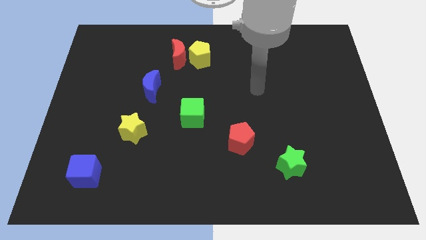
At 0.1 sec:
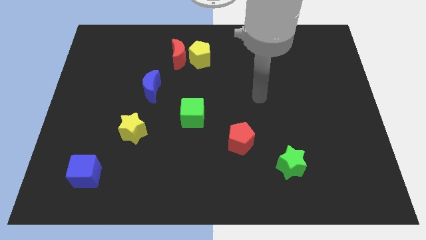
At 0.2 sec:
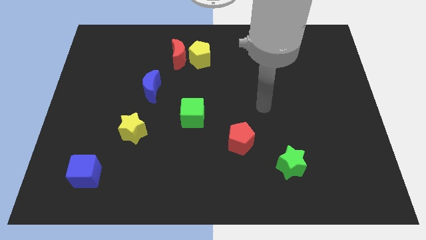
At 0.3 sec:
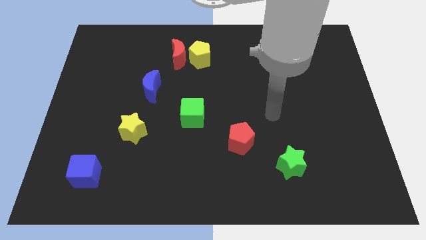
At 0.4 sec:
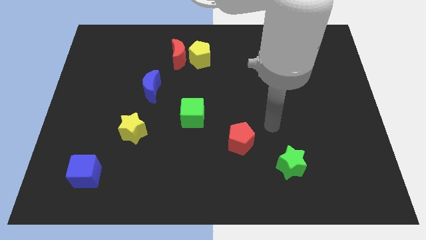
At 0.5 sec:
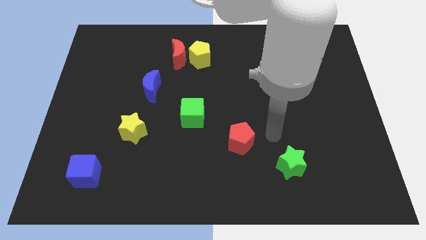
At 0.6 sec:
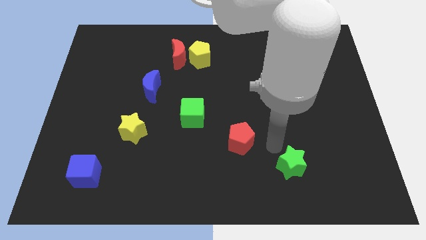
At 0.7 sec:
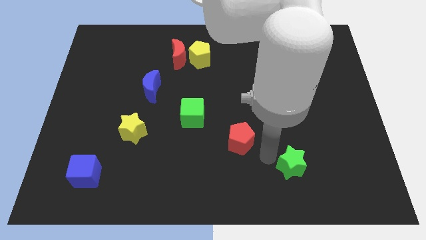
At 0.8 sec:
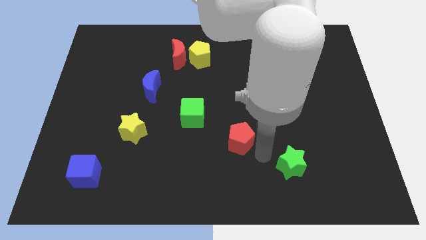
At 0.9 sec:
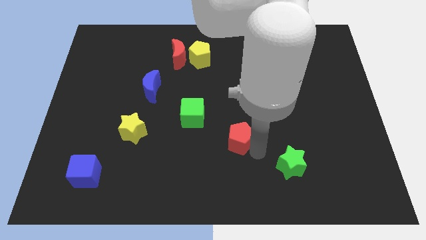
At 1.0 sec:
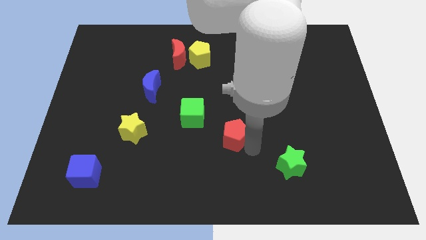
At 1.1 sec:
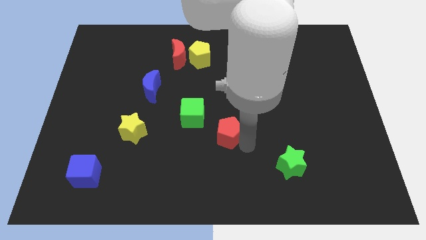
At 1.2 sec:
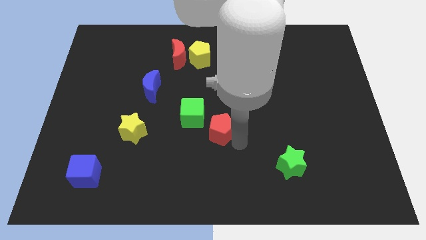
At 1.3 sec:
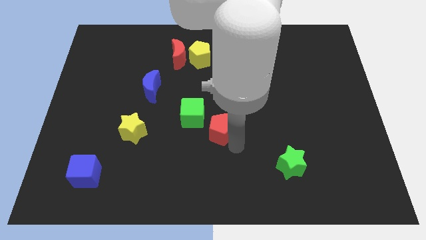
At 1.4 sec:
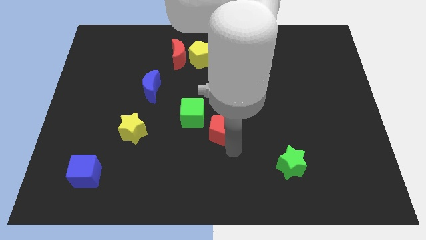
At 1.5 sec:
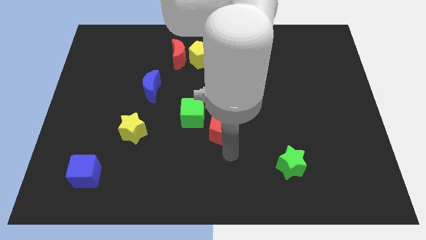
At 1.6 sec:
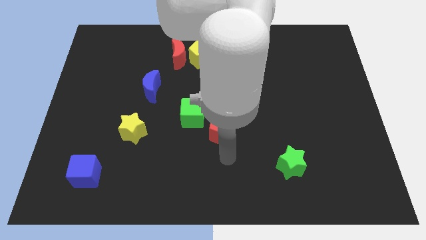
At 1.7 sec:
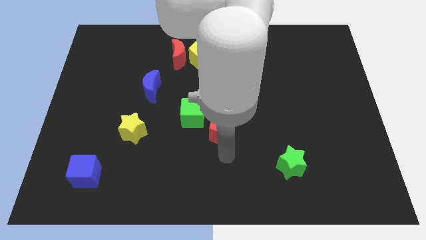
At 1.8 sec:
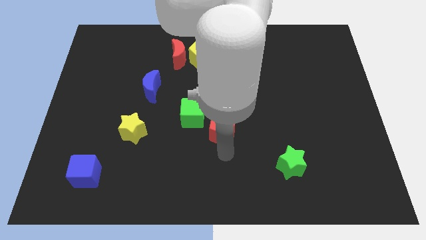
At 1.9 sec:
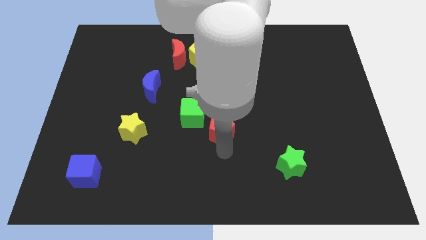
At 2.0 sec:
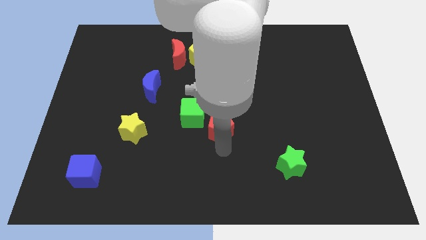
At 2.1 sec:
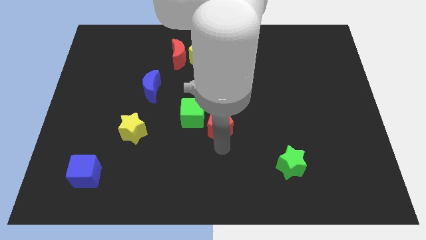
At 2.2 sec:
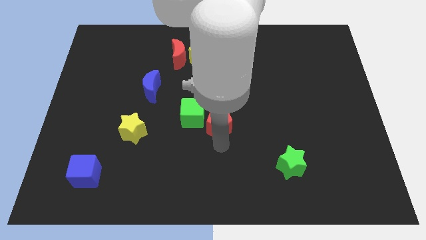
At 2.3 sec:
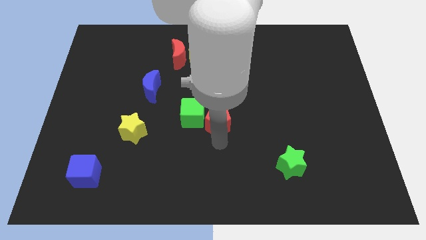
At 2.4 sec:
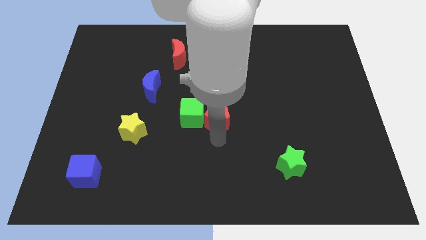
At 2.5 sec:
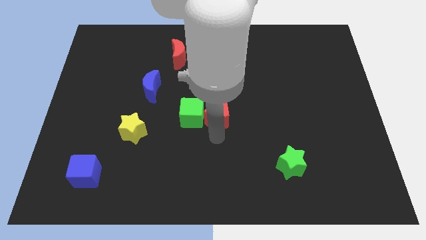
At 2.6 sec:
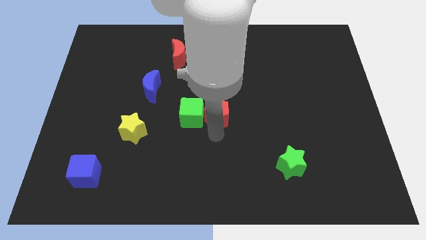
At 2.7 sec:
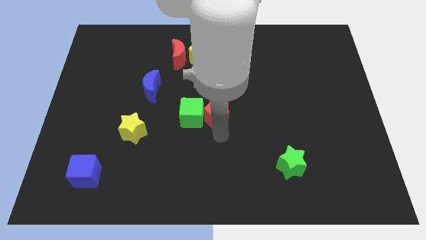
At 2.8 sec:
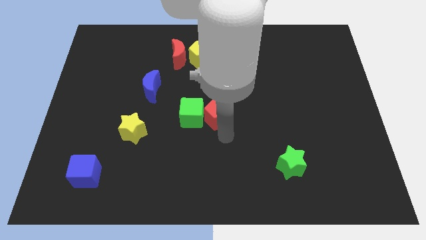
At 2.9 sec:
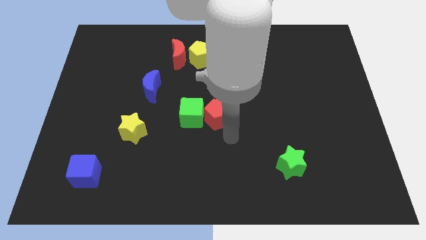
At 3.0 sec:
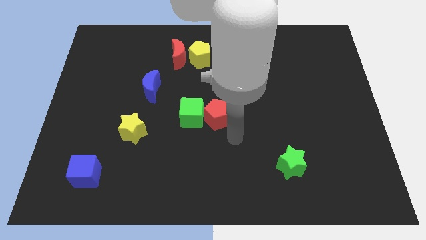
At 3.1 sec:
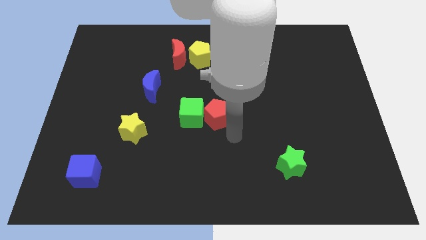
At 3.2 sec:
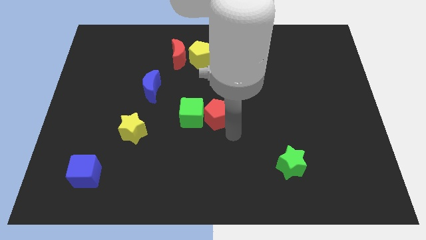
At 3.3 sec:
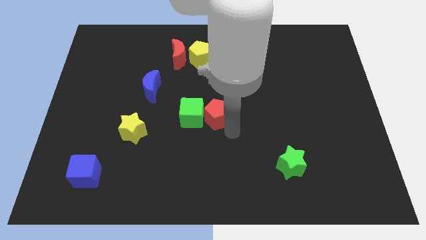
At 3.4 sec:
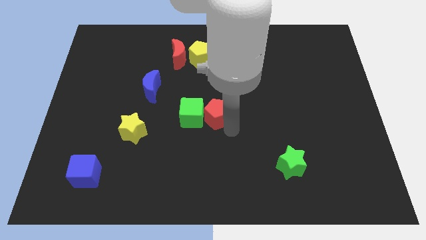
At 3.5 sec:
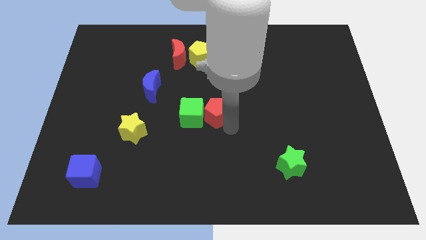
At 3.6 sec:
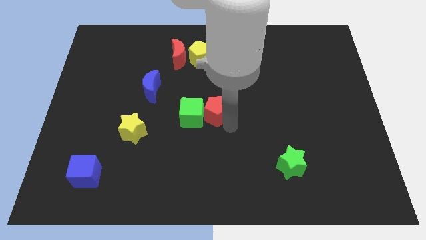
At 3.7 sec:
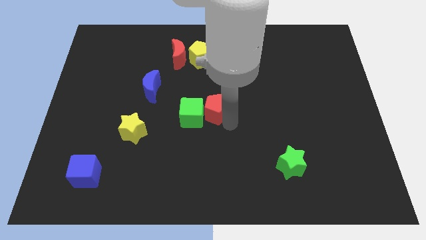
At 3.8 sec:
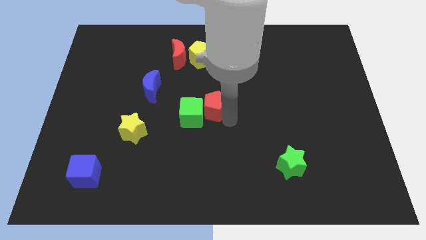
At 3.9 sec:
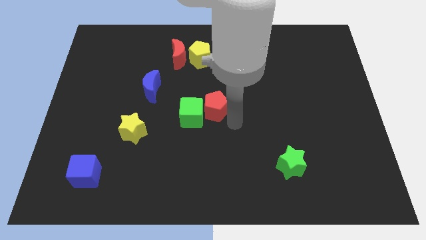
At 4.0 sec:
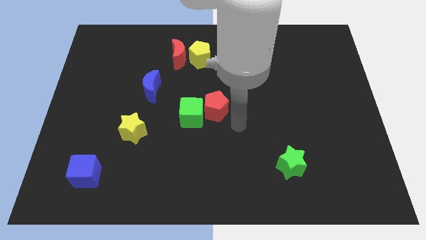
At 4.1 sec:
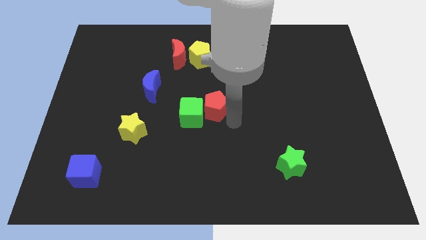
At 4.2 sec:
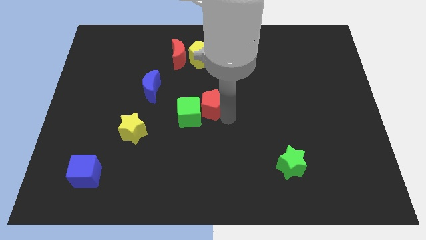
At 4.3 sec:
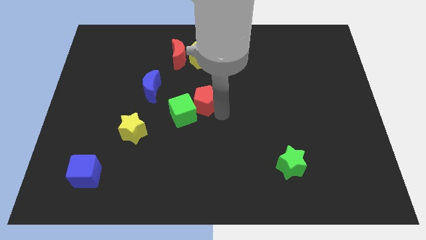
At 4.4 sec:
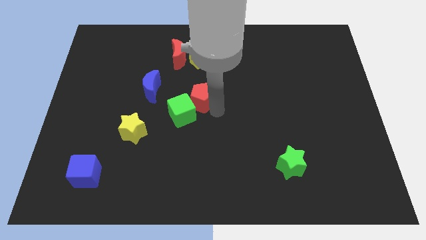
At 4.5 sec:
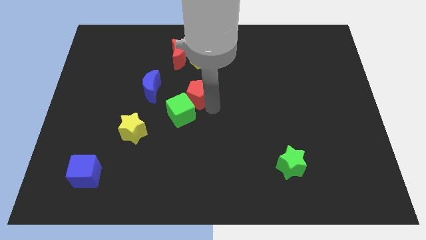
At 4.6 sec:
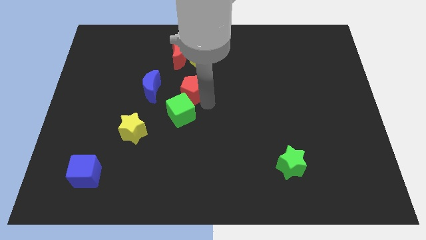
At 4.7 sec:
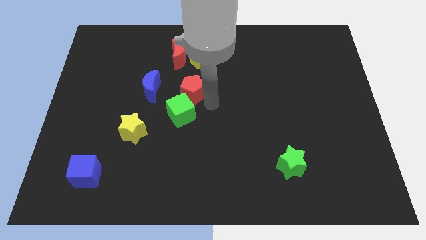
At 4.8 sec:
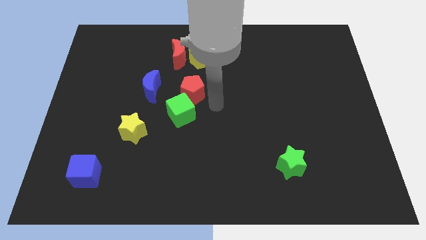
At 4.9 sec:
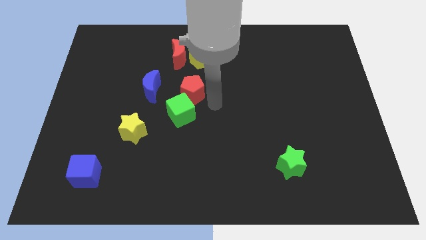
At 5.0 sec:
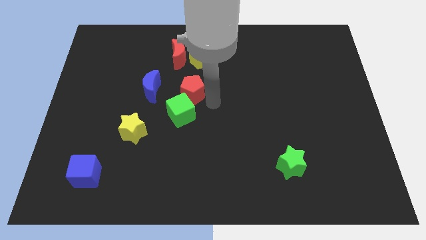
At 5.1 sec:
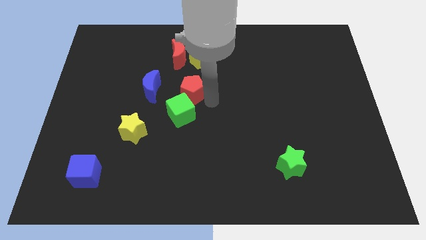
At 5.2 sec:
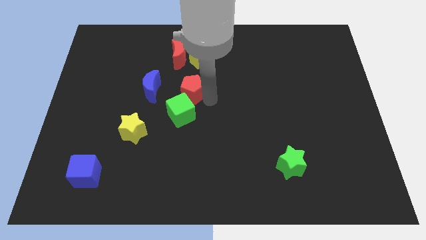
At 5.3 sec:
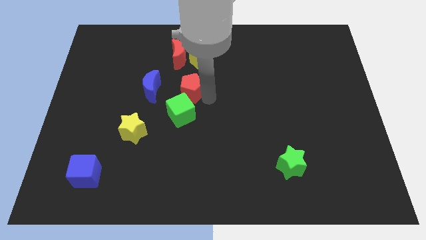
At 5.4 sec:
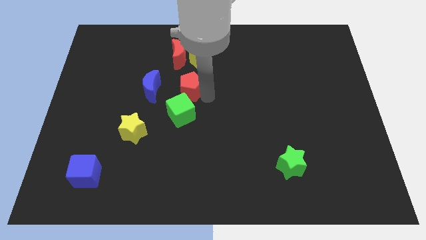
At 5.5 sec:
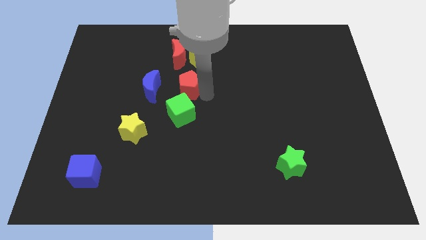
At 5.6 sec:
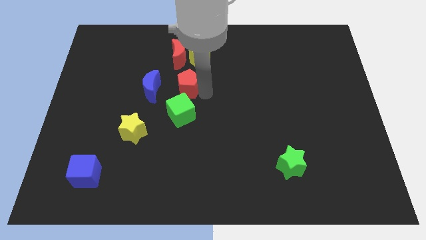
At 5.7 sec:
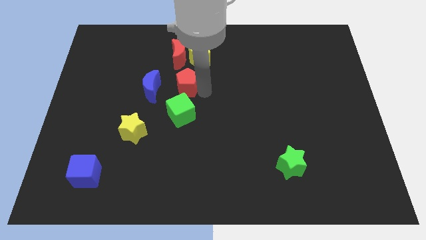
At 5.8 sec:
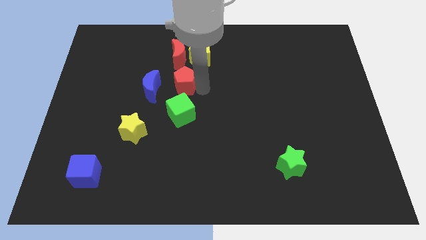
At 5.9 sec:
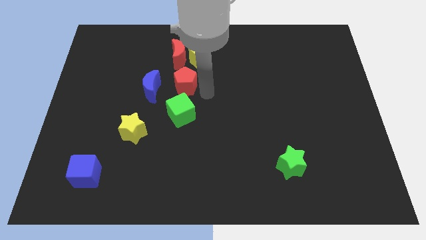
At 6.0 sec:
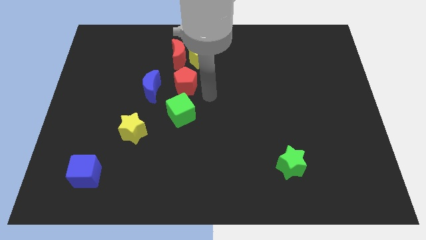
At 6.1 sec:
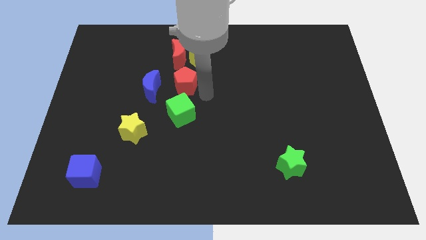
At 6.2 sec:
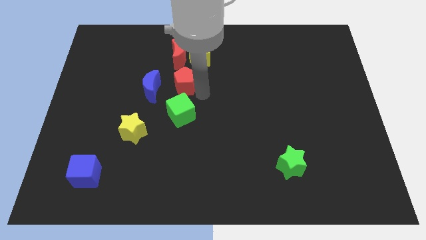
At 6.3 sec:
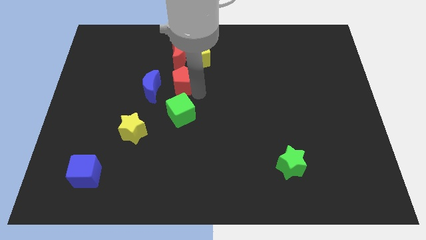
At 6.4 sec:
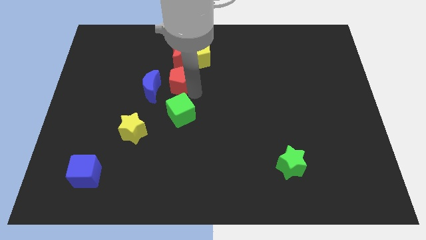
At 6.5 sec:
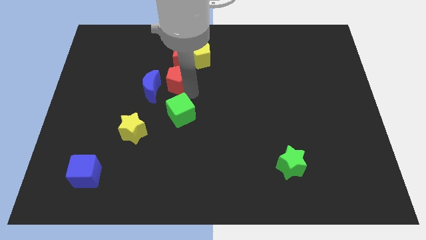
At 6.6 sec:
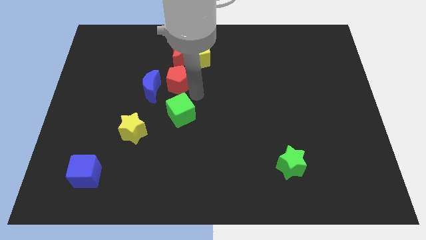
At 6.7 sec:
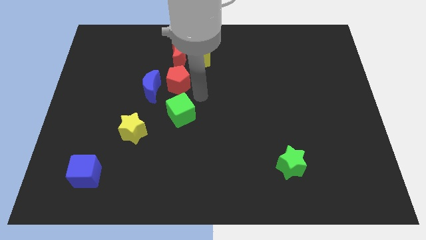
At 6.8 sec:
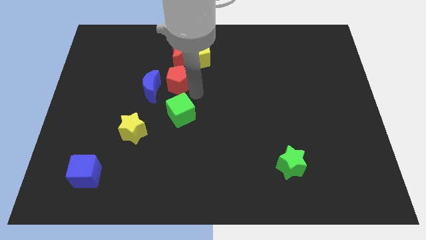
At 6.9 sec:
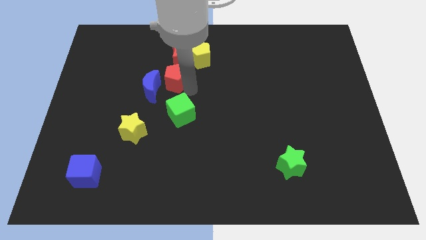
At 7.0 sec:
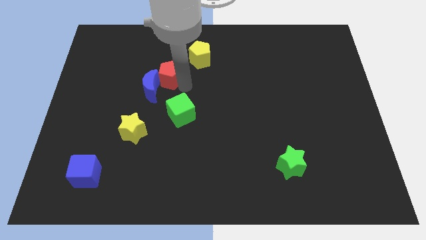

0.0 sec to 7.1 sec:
put the red pentagon to the bottom left of the red moon

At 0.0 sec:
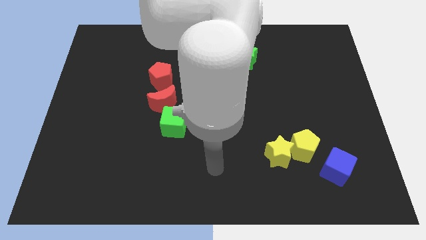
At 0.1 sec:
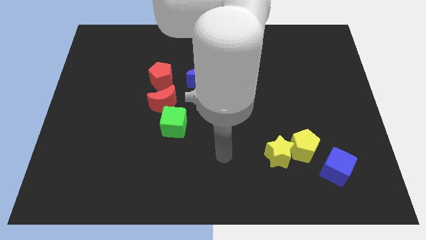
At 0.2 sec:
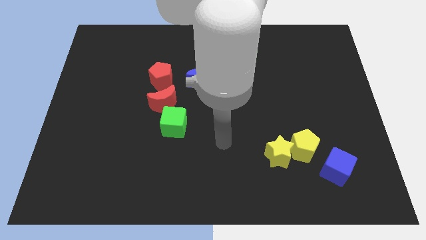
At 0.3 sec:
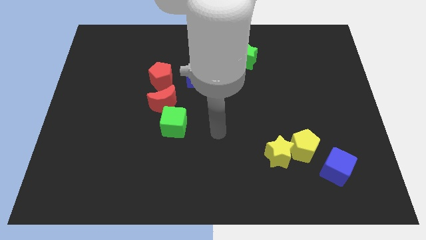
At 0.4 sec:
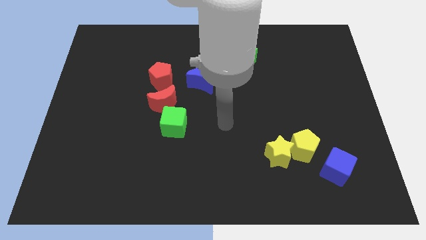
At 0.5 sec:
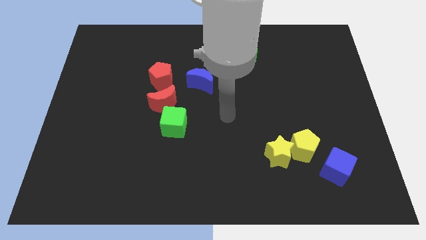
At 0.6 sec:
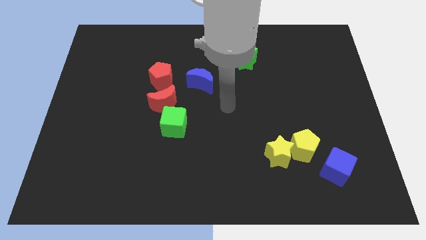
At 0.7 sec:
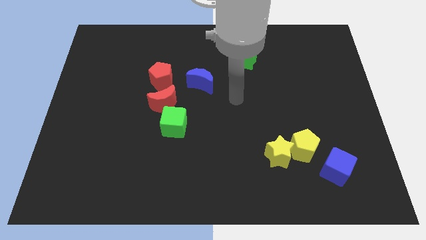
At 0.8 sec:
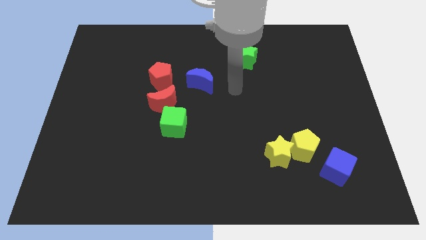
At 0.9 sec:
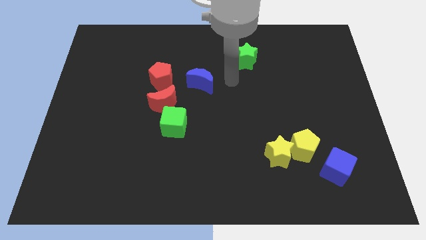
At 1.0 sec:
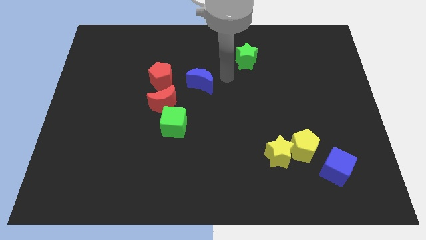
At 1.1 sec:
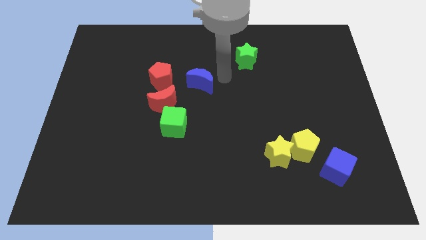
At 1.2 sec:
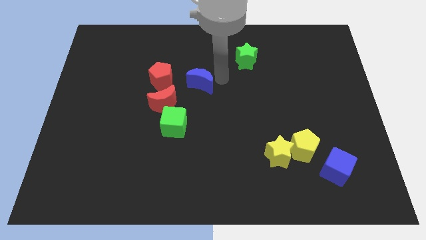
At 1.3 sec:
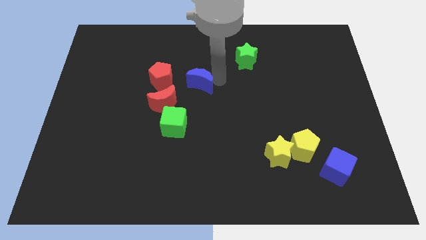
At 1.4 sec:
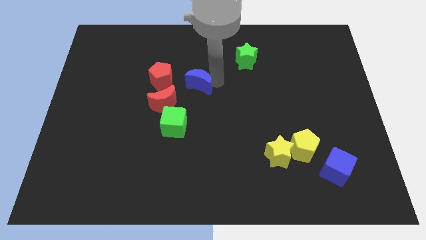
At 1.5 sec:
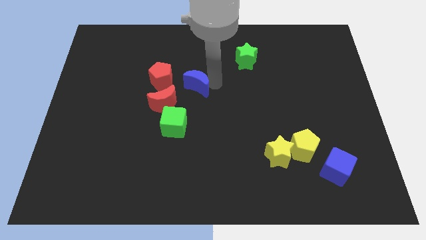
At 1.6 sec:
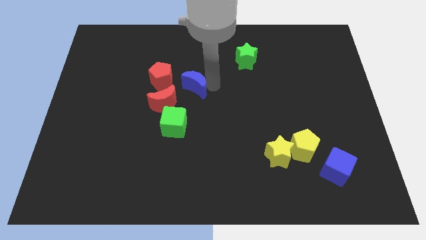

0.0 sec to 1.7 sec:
put the blue moon to the top of the green cube
